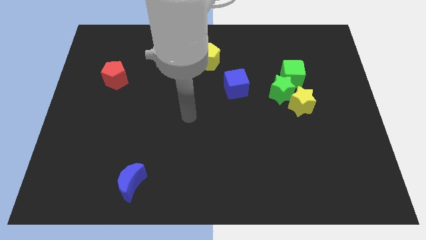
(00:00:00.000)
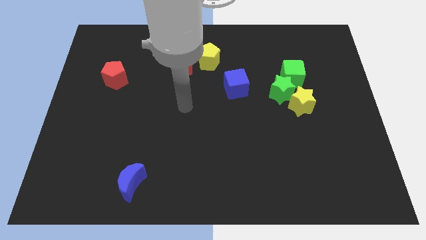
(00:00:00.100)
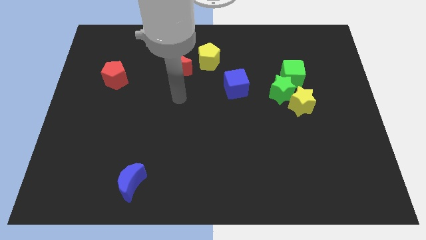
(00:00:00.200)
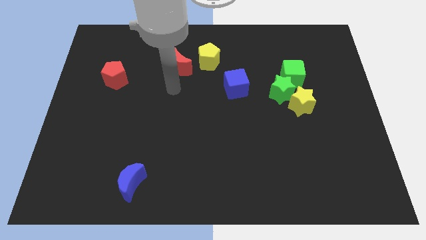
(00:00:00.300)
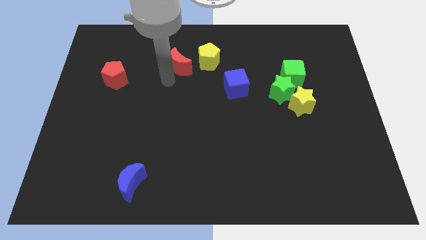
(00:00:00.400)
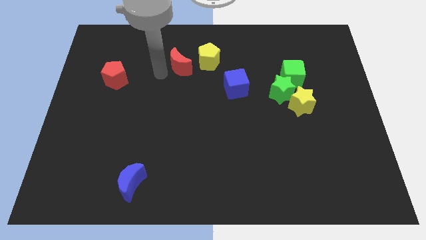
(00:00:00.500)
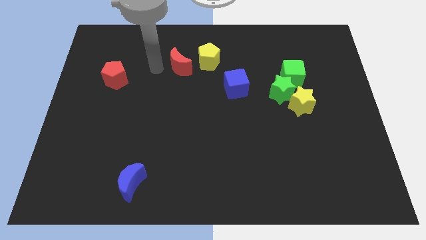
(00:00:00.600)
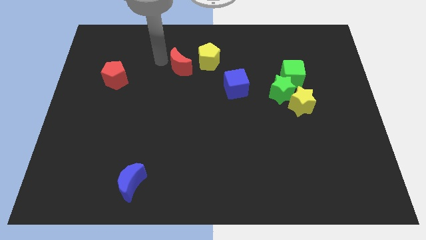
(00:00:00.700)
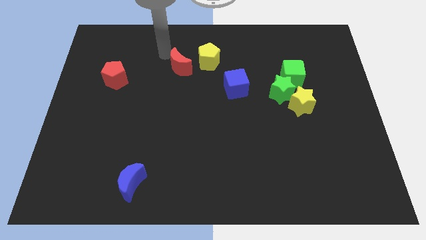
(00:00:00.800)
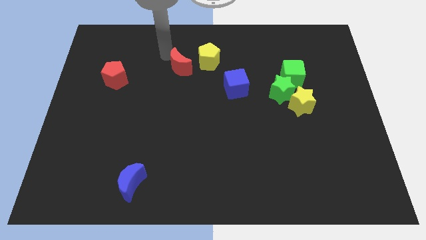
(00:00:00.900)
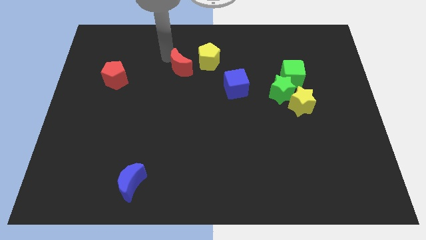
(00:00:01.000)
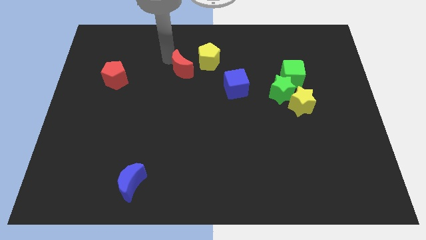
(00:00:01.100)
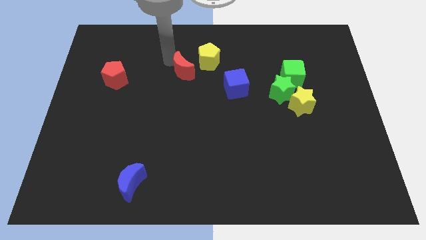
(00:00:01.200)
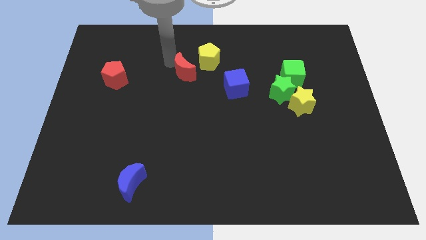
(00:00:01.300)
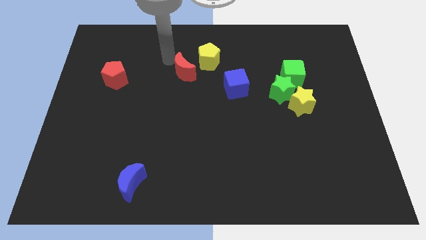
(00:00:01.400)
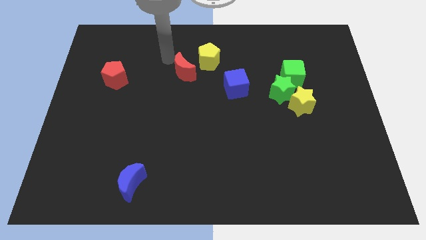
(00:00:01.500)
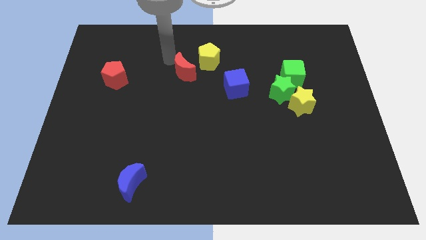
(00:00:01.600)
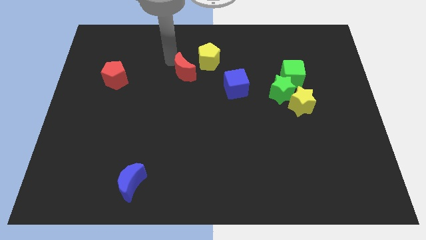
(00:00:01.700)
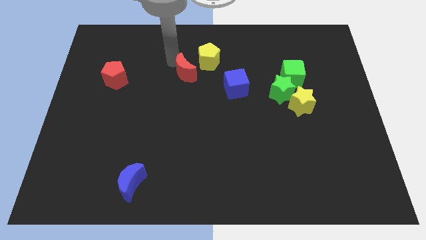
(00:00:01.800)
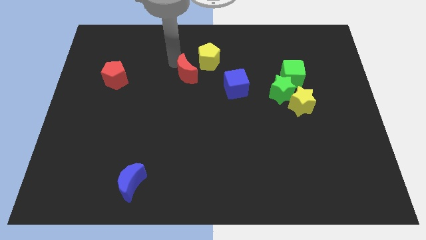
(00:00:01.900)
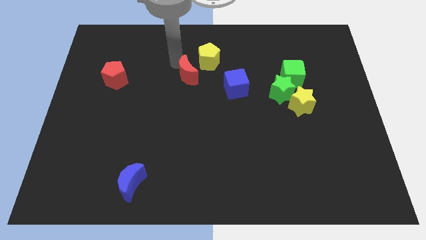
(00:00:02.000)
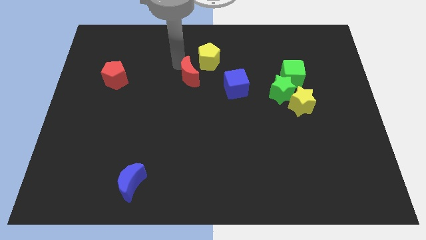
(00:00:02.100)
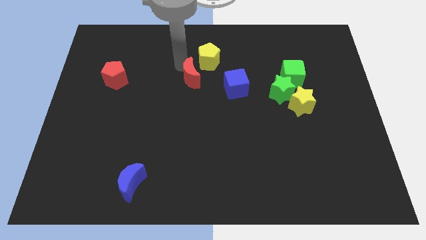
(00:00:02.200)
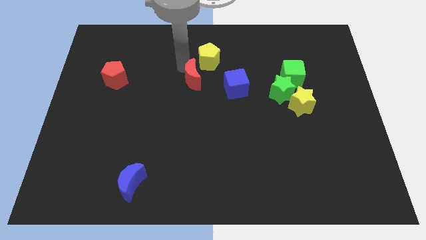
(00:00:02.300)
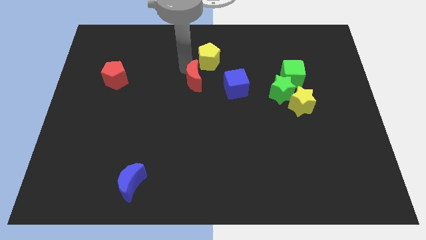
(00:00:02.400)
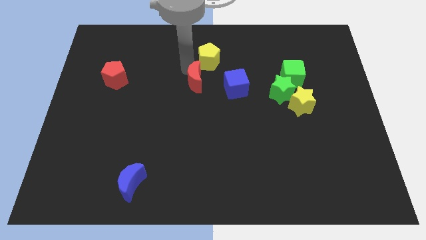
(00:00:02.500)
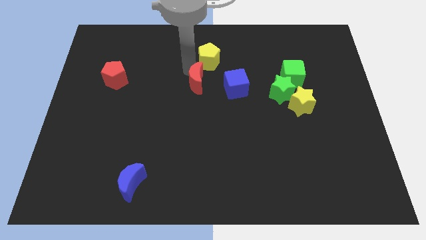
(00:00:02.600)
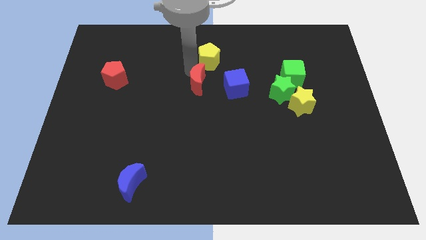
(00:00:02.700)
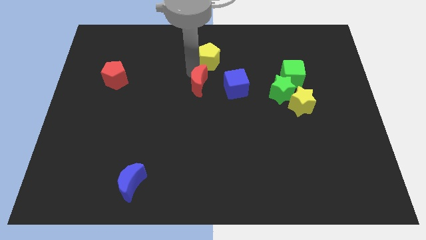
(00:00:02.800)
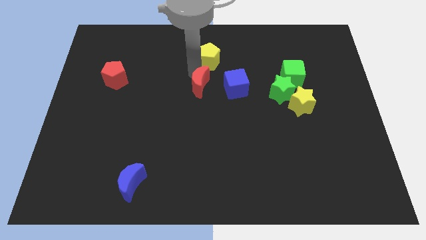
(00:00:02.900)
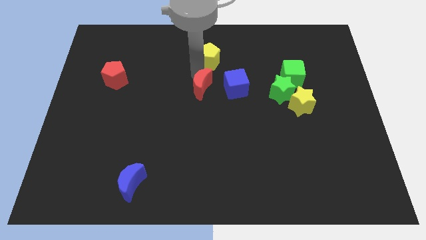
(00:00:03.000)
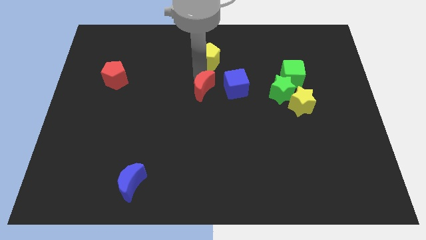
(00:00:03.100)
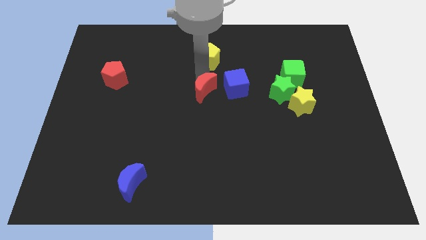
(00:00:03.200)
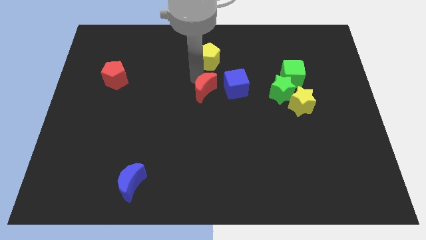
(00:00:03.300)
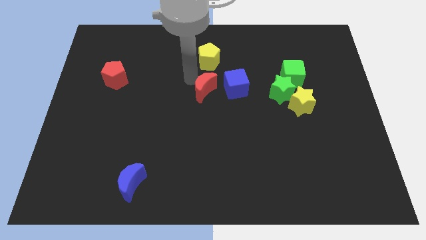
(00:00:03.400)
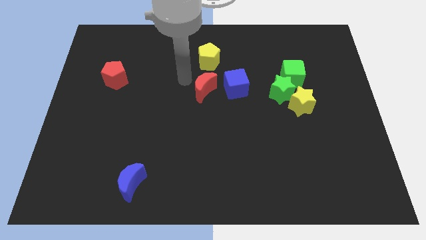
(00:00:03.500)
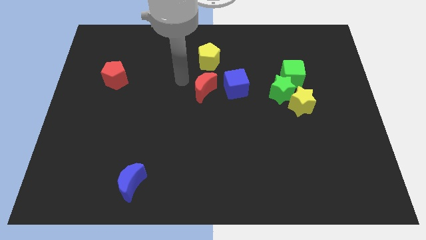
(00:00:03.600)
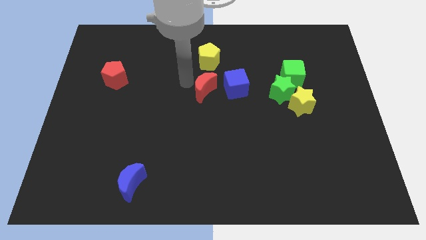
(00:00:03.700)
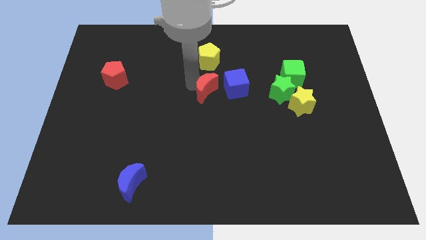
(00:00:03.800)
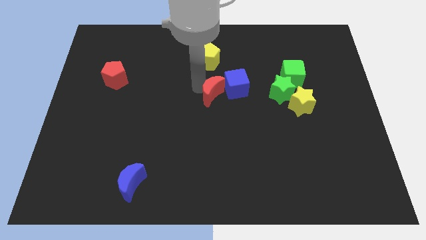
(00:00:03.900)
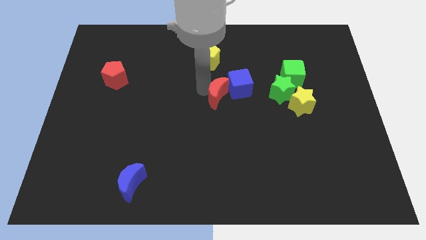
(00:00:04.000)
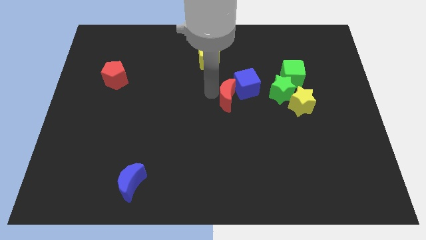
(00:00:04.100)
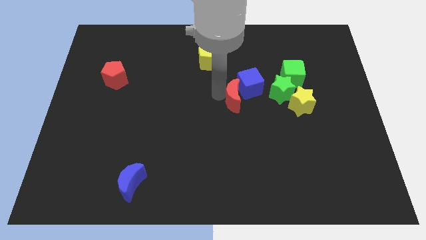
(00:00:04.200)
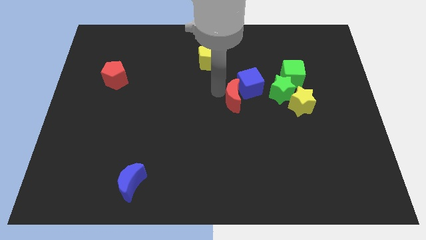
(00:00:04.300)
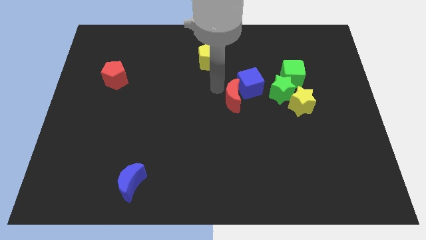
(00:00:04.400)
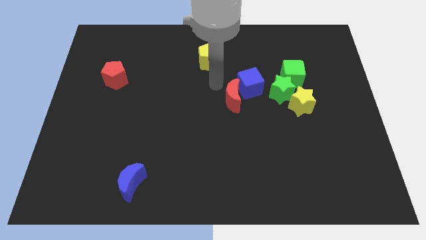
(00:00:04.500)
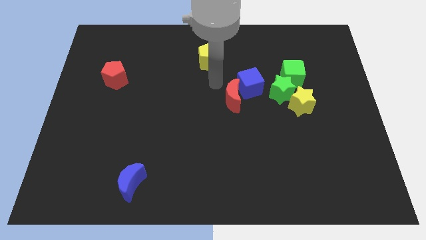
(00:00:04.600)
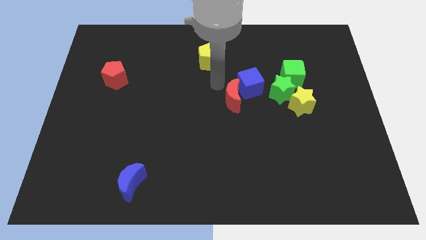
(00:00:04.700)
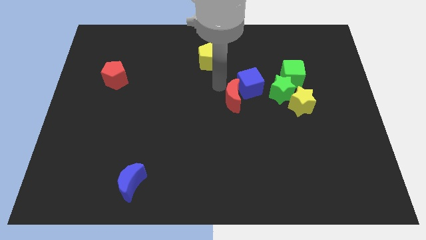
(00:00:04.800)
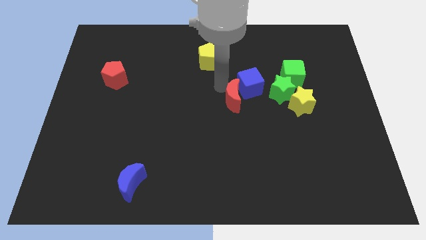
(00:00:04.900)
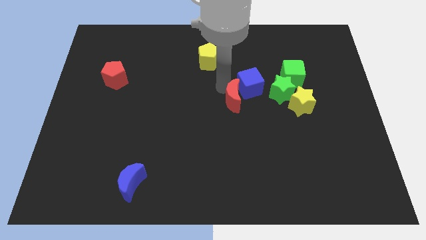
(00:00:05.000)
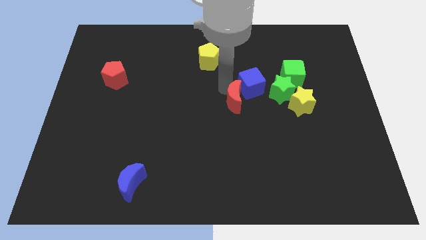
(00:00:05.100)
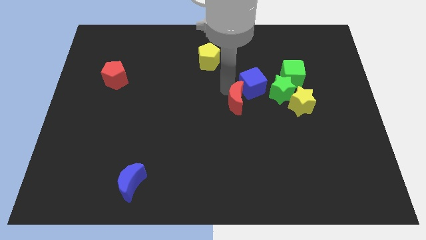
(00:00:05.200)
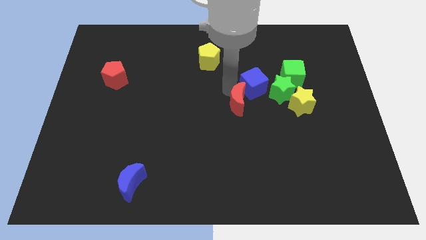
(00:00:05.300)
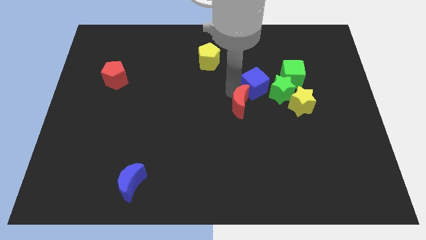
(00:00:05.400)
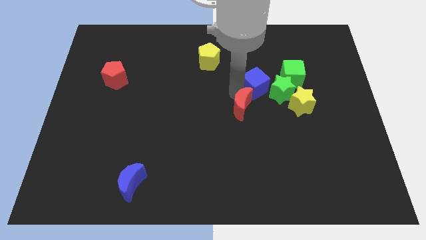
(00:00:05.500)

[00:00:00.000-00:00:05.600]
slide the red moon down and to the right diagonally

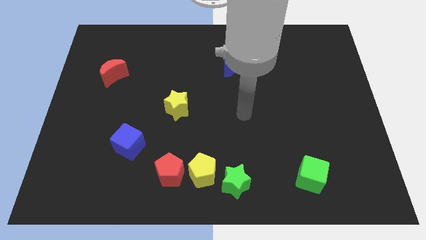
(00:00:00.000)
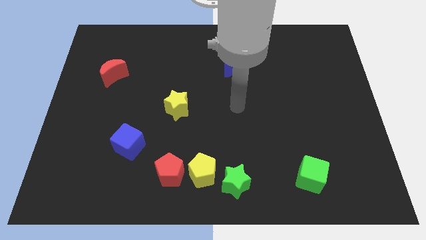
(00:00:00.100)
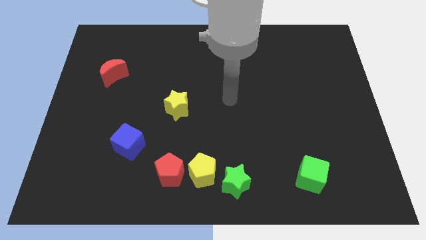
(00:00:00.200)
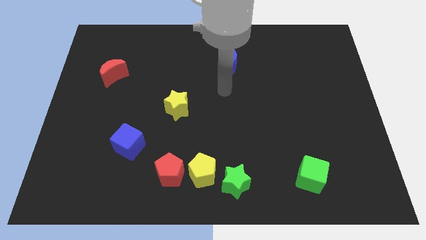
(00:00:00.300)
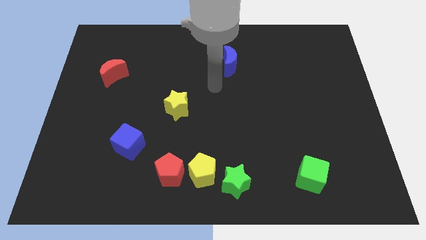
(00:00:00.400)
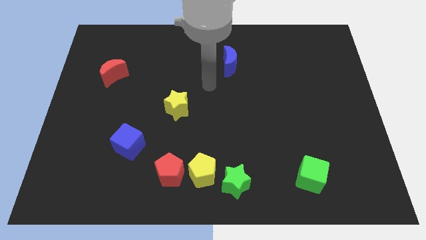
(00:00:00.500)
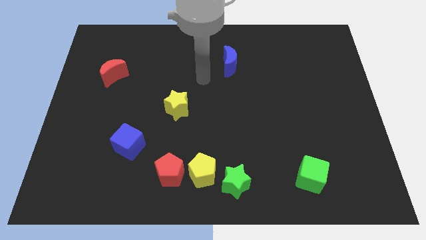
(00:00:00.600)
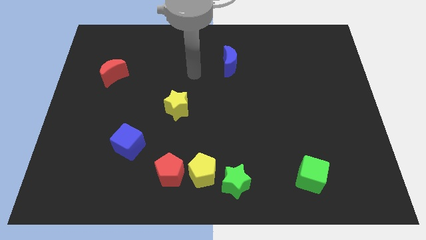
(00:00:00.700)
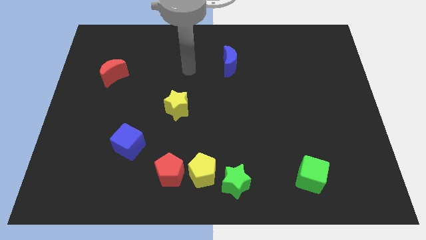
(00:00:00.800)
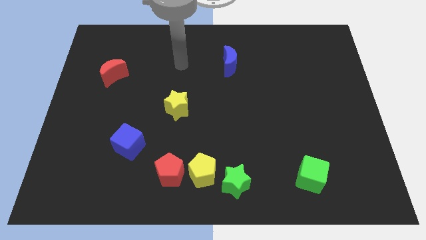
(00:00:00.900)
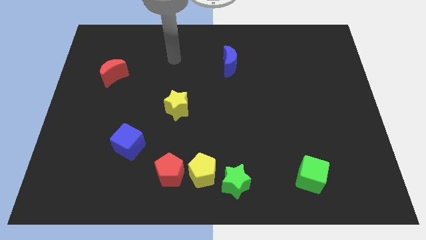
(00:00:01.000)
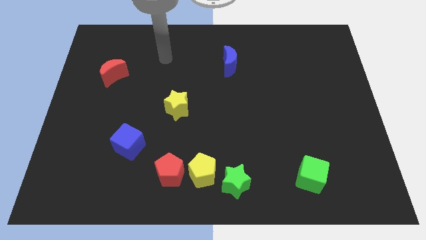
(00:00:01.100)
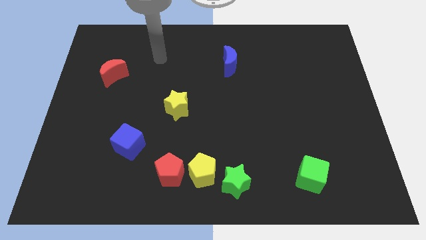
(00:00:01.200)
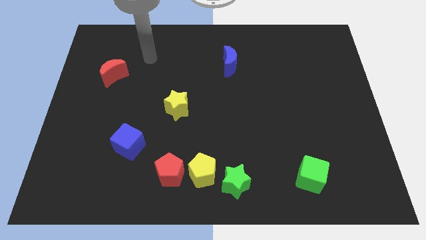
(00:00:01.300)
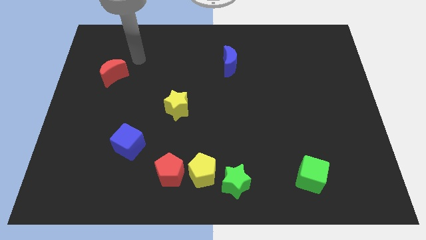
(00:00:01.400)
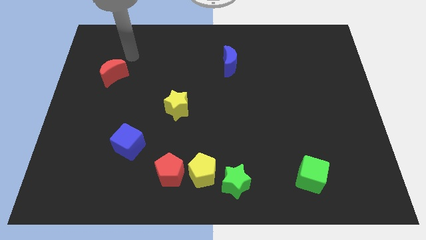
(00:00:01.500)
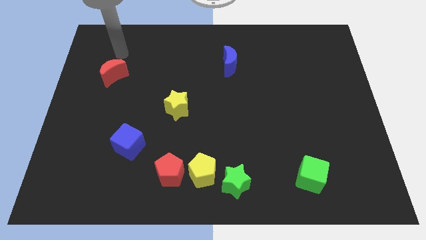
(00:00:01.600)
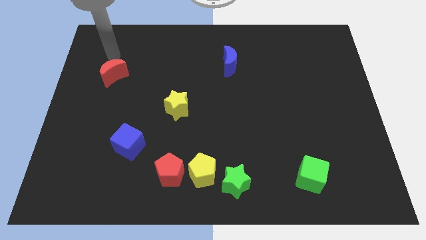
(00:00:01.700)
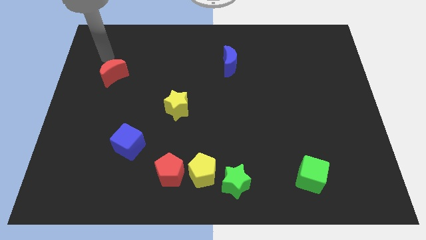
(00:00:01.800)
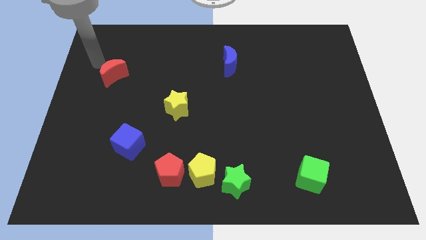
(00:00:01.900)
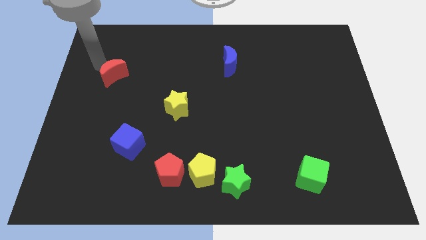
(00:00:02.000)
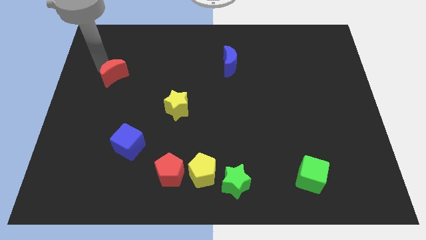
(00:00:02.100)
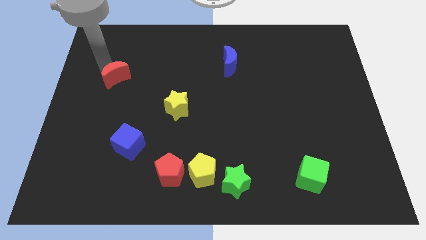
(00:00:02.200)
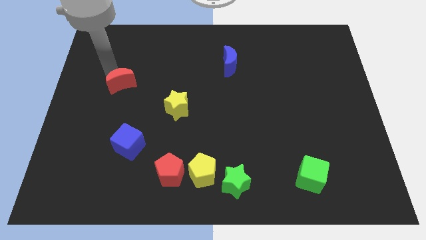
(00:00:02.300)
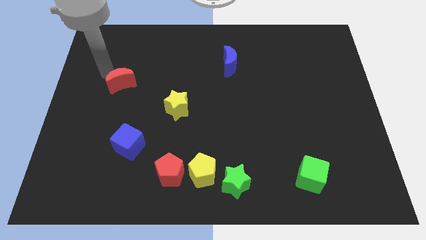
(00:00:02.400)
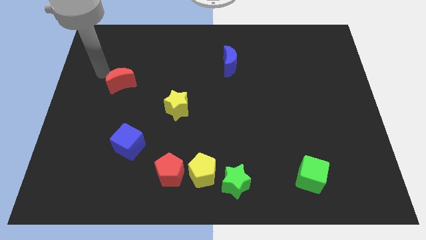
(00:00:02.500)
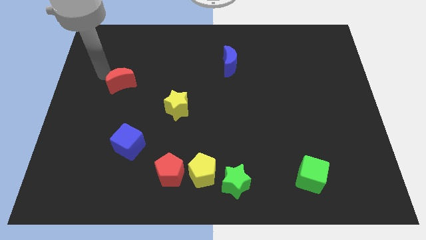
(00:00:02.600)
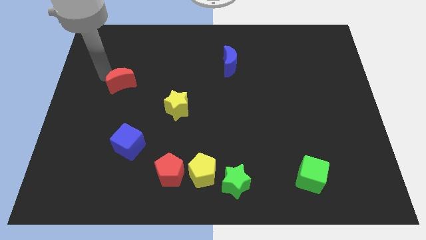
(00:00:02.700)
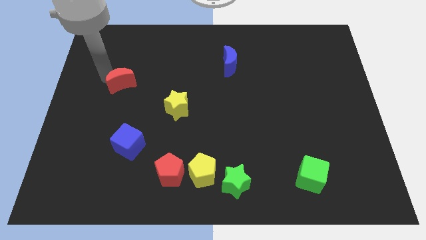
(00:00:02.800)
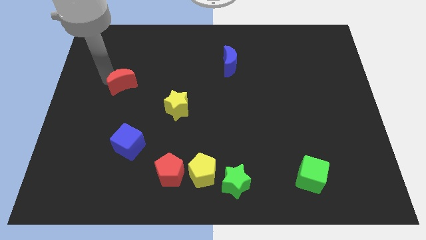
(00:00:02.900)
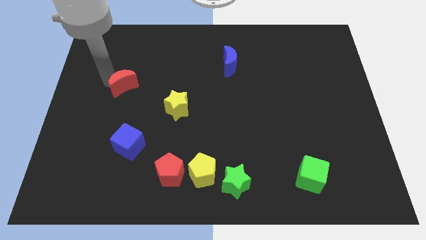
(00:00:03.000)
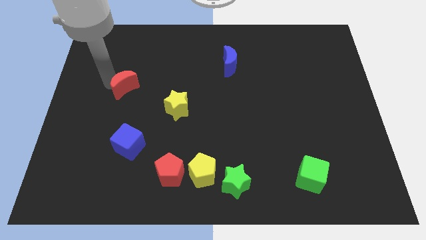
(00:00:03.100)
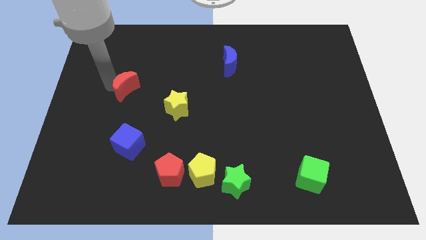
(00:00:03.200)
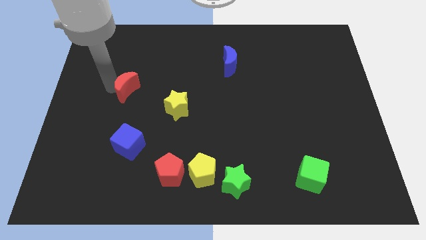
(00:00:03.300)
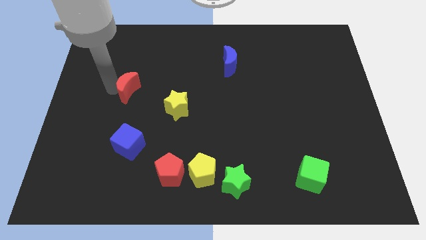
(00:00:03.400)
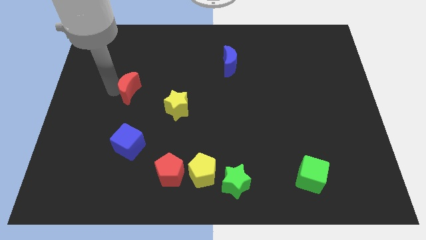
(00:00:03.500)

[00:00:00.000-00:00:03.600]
move the red moon a little bit down and then right
